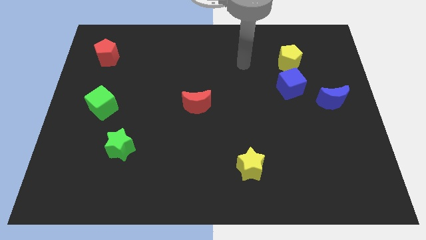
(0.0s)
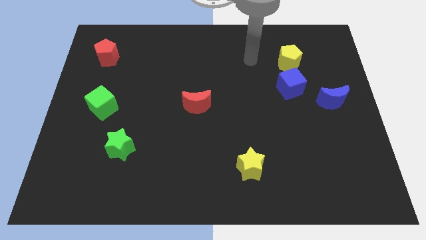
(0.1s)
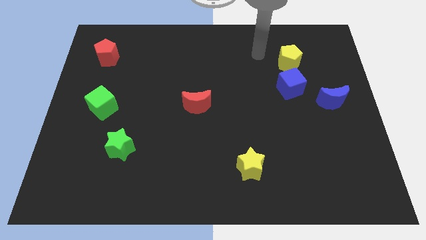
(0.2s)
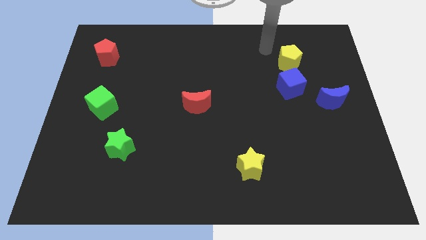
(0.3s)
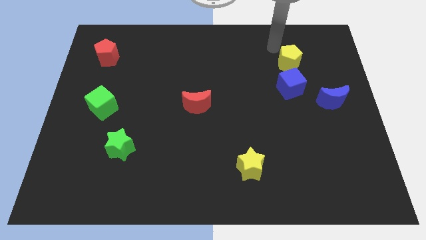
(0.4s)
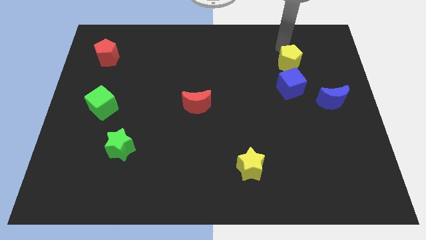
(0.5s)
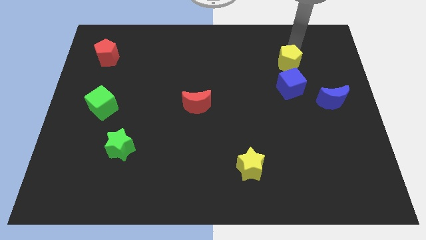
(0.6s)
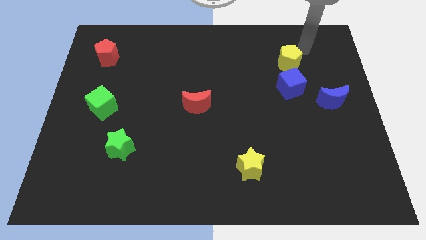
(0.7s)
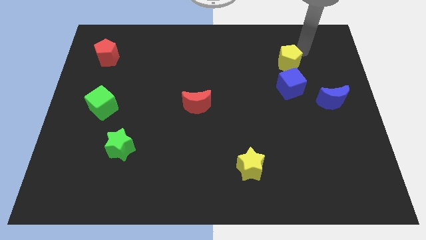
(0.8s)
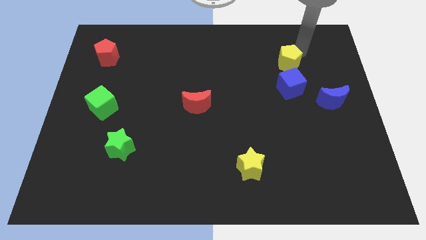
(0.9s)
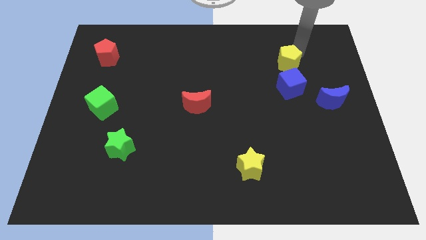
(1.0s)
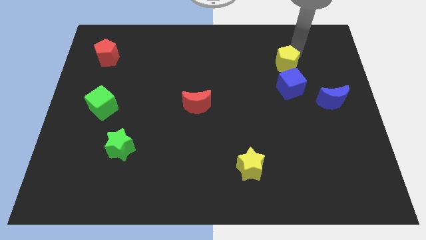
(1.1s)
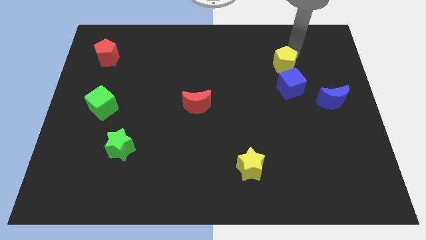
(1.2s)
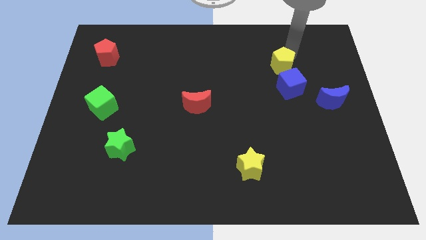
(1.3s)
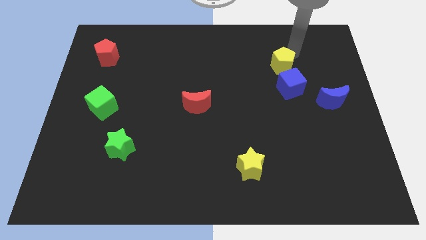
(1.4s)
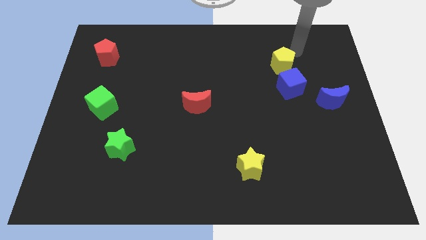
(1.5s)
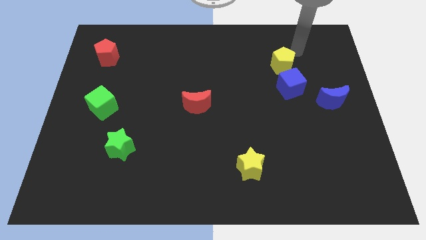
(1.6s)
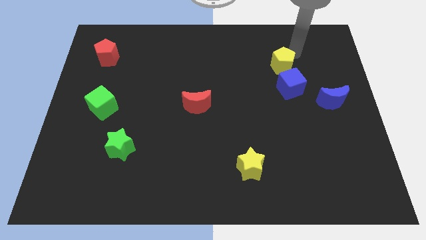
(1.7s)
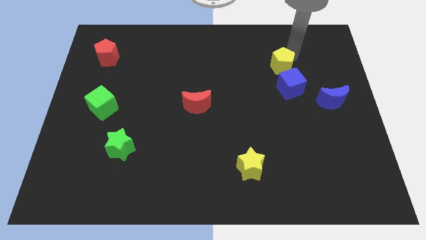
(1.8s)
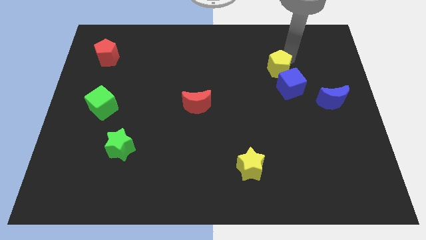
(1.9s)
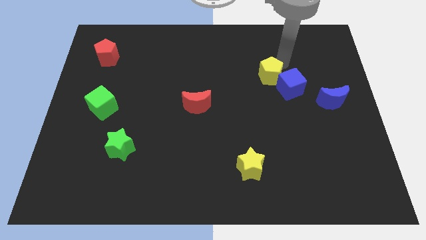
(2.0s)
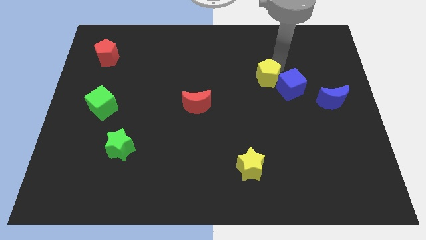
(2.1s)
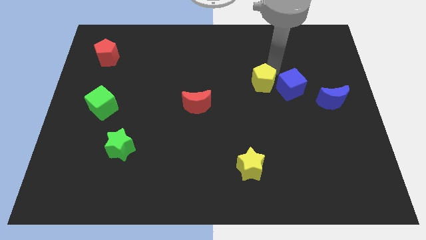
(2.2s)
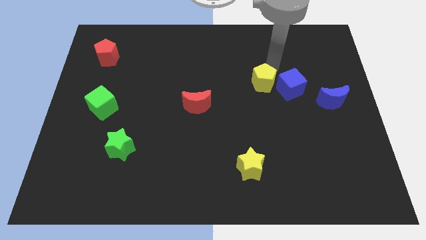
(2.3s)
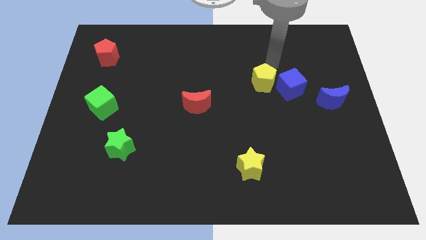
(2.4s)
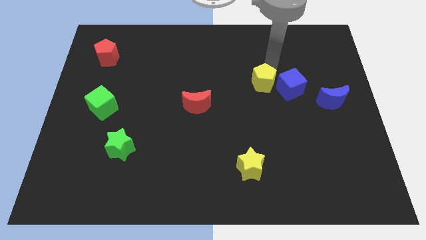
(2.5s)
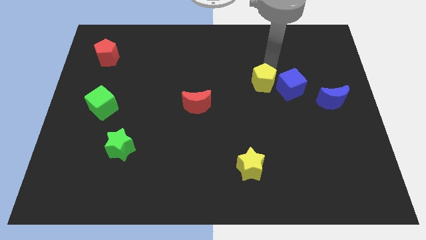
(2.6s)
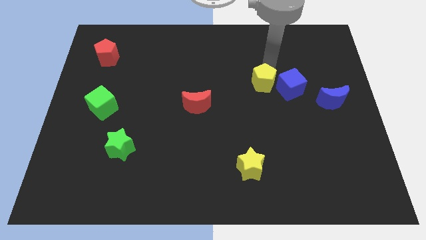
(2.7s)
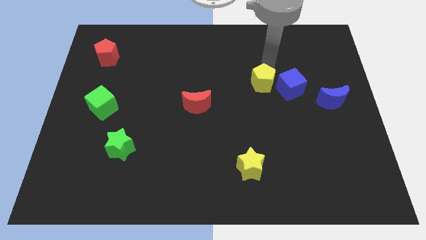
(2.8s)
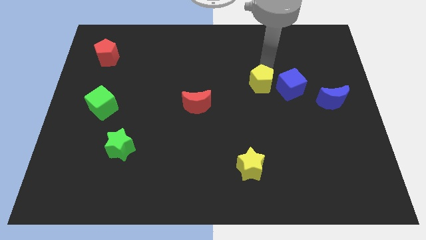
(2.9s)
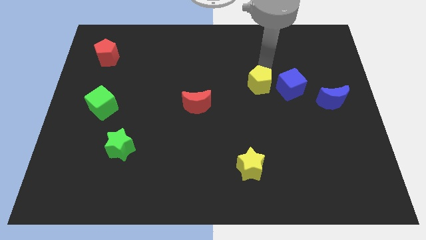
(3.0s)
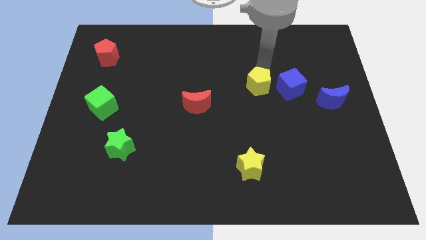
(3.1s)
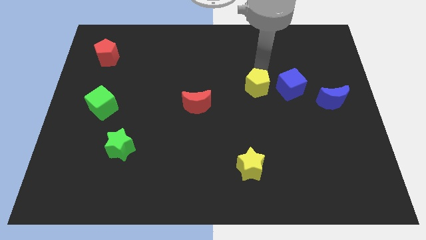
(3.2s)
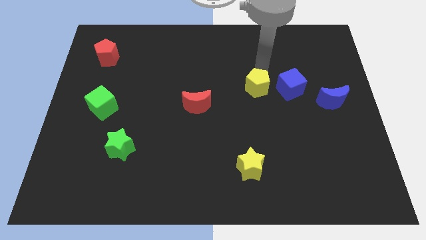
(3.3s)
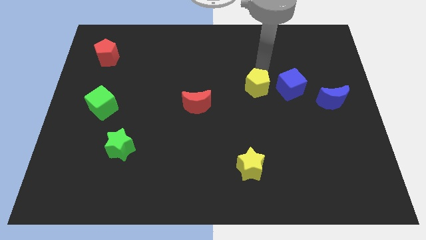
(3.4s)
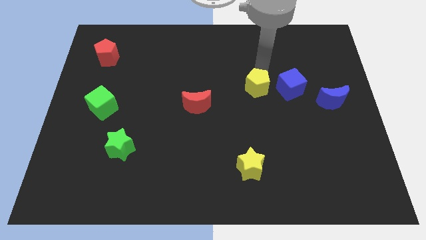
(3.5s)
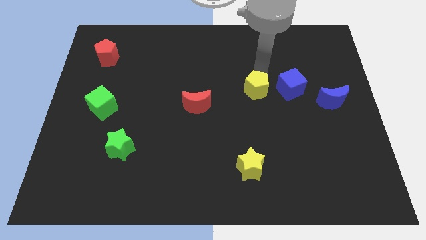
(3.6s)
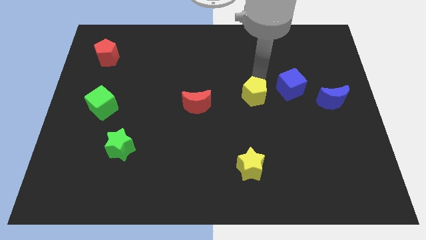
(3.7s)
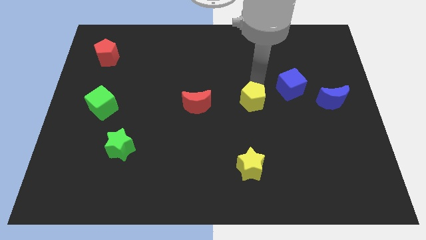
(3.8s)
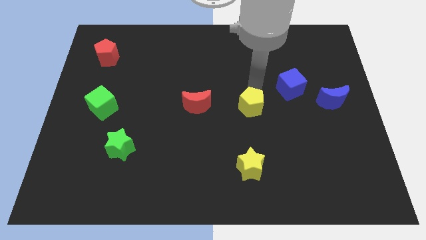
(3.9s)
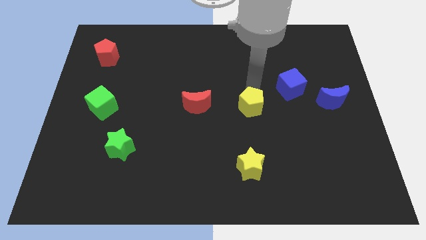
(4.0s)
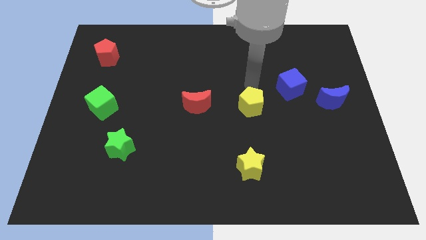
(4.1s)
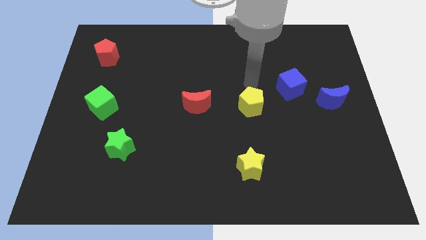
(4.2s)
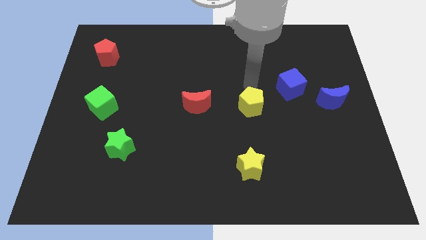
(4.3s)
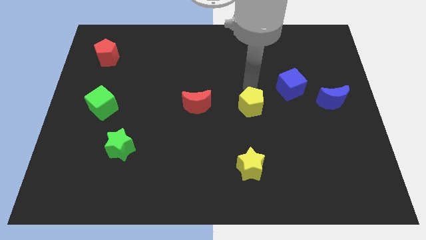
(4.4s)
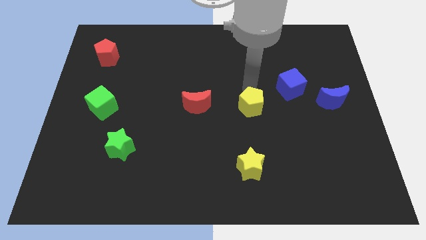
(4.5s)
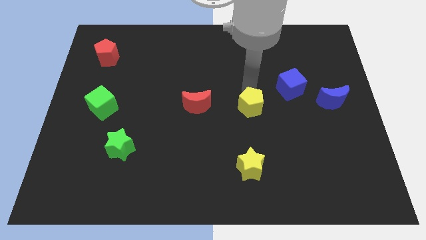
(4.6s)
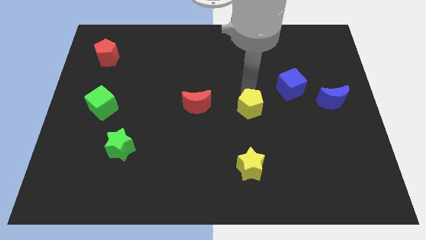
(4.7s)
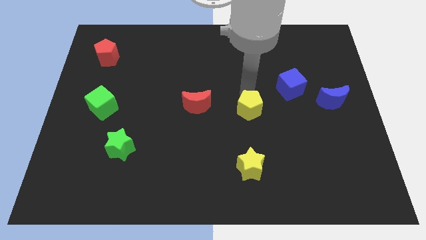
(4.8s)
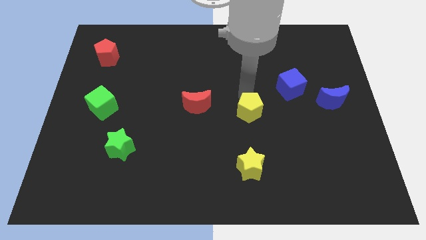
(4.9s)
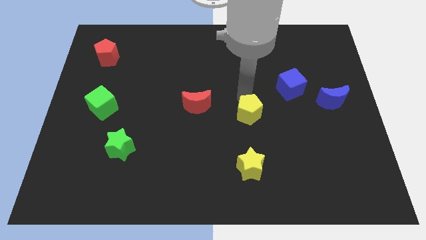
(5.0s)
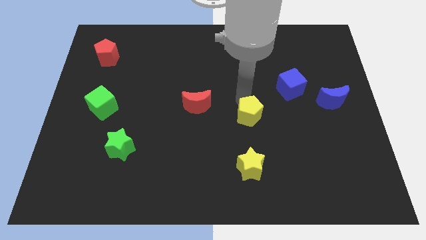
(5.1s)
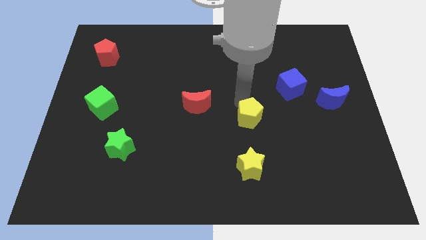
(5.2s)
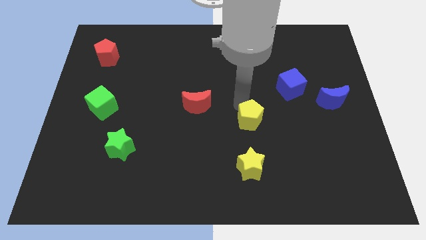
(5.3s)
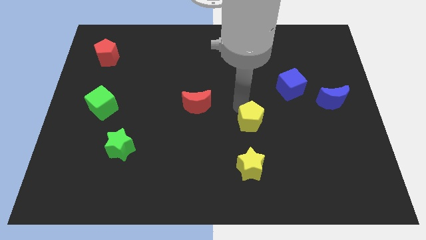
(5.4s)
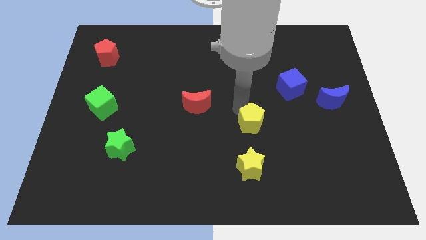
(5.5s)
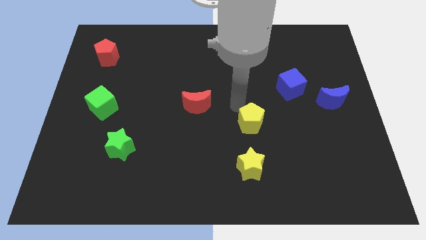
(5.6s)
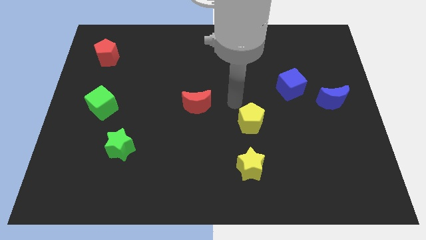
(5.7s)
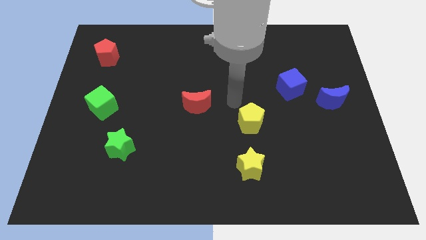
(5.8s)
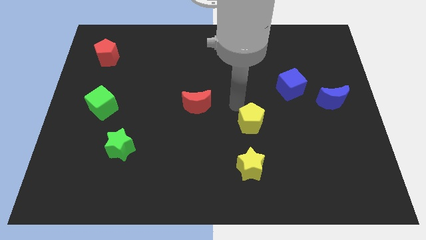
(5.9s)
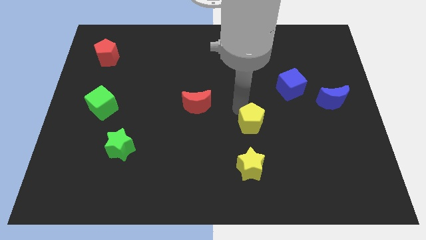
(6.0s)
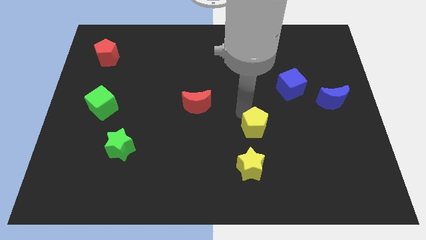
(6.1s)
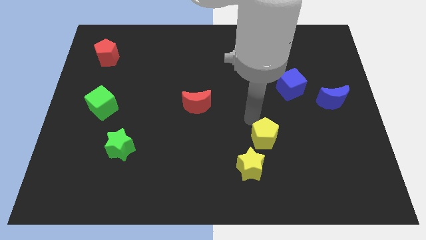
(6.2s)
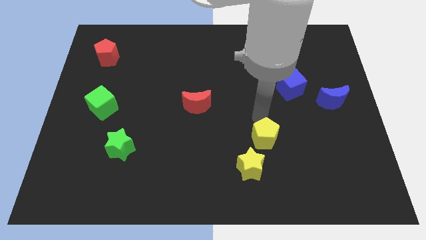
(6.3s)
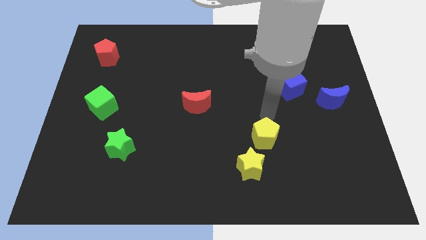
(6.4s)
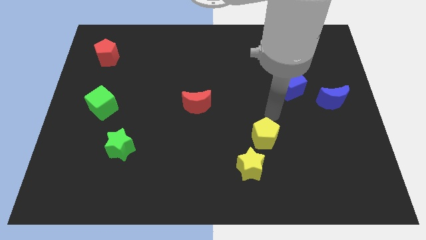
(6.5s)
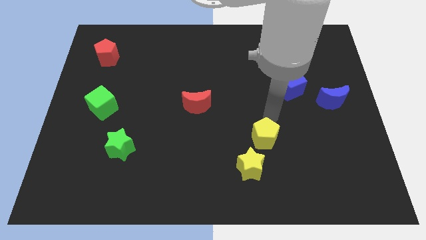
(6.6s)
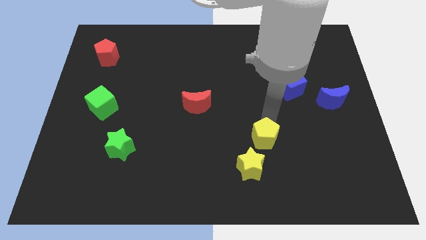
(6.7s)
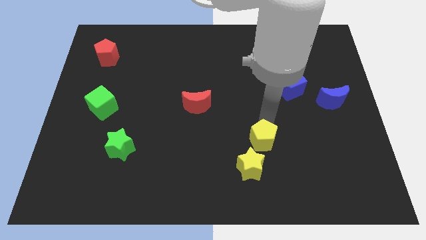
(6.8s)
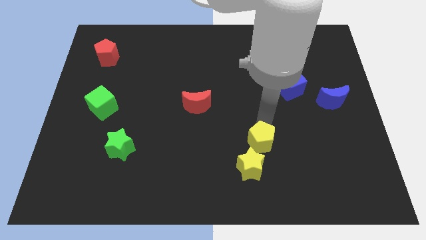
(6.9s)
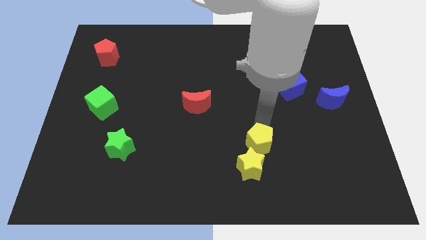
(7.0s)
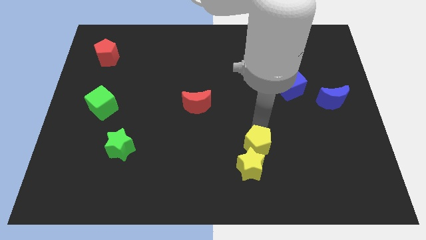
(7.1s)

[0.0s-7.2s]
push the yellow pentagon towards the yellow star

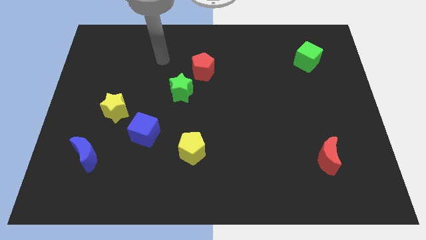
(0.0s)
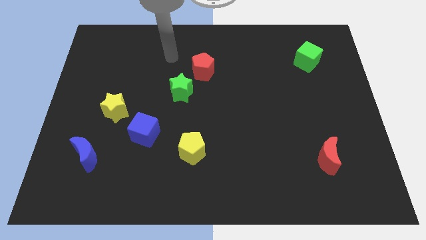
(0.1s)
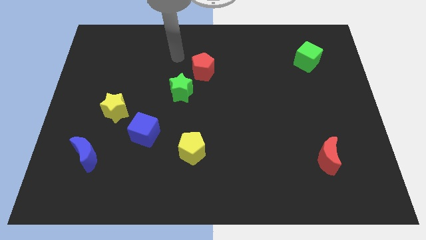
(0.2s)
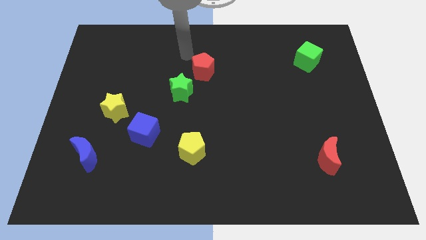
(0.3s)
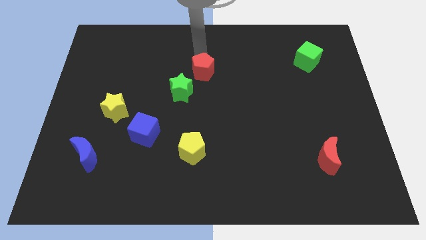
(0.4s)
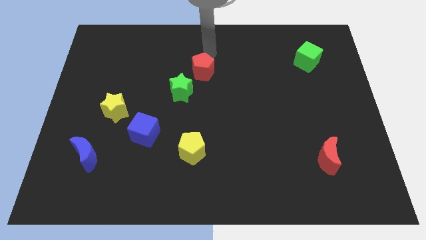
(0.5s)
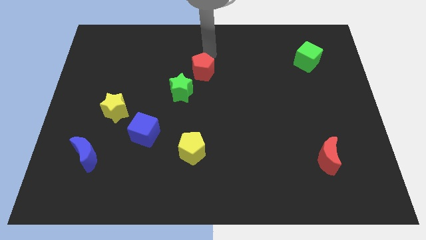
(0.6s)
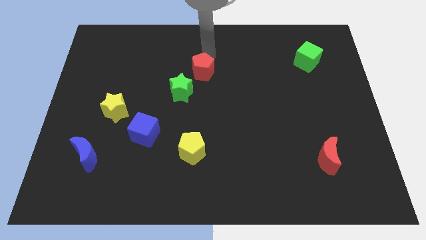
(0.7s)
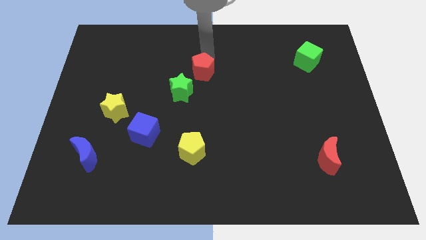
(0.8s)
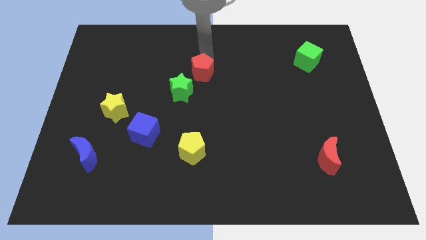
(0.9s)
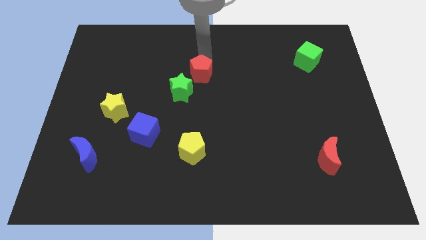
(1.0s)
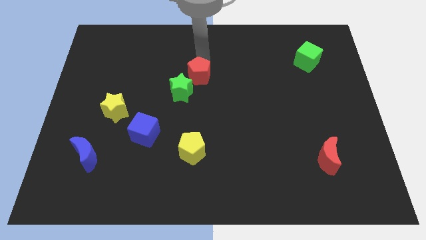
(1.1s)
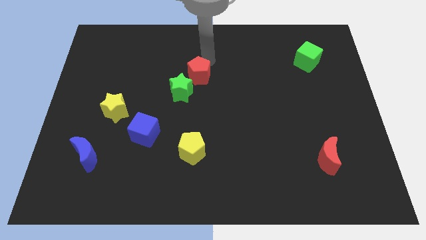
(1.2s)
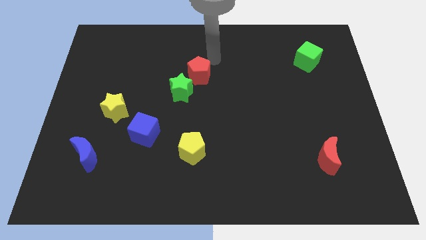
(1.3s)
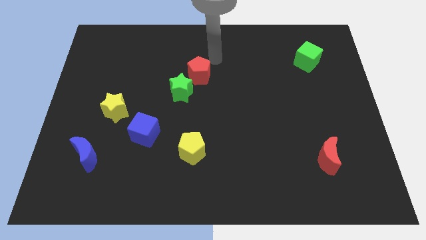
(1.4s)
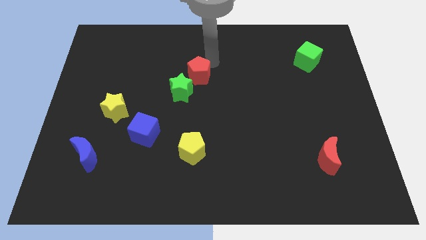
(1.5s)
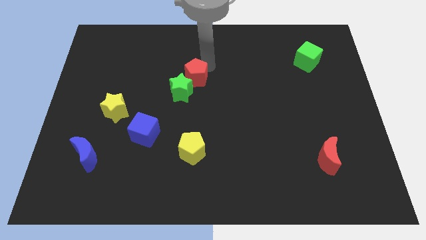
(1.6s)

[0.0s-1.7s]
put the red pentagon towards the green star
